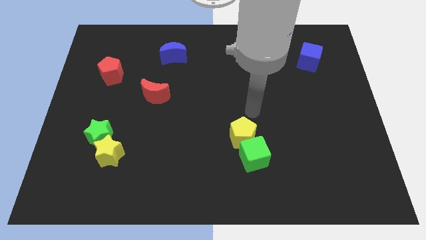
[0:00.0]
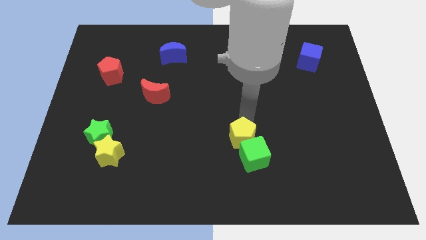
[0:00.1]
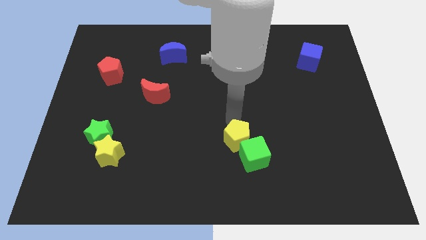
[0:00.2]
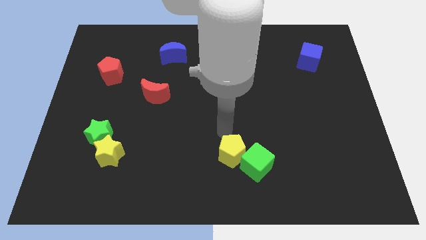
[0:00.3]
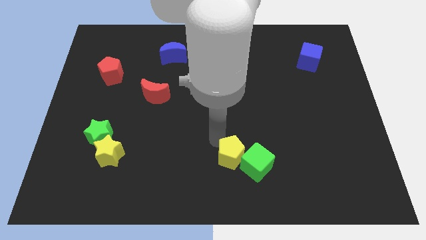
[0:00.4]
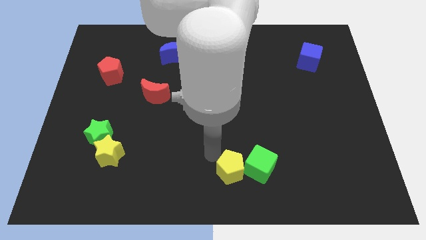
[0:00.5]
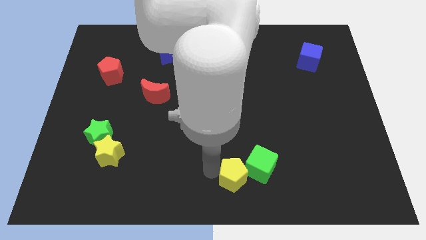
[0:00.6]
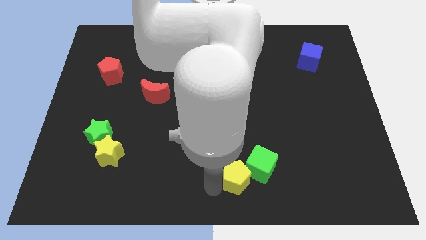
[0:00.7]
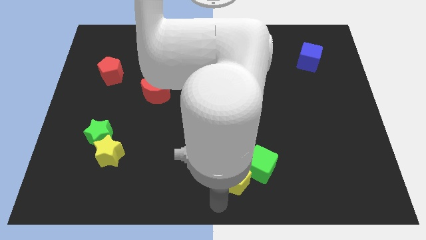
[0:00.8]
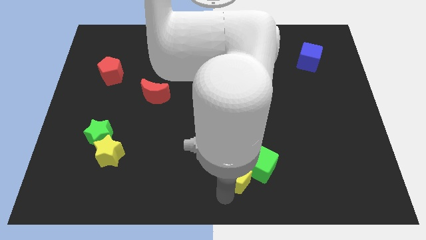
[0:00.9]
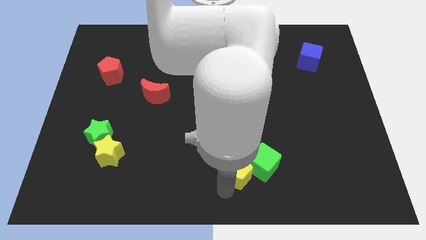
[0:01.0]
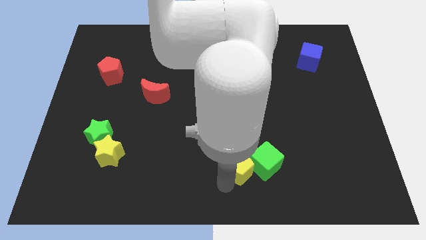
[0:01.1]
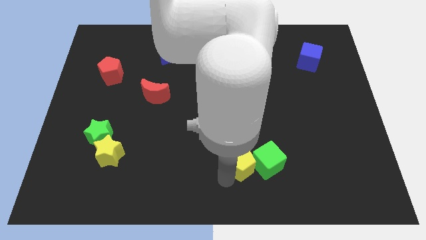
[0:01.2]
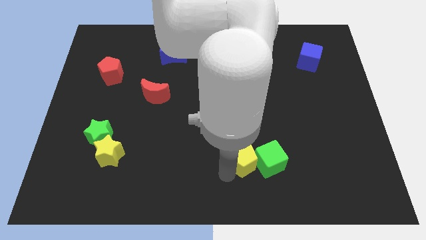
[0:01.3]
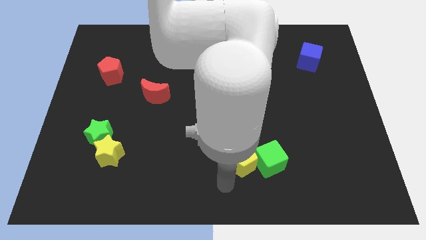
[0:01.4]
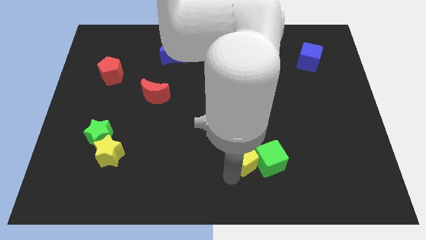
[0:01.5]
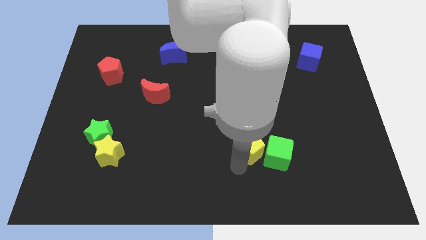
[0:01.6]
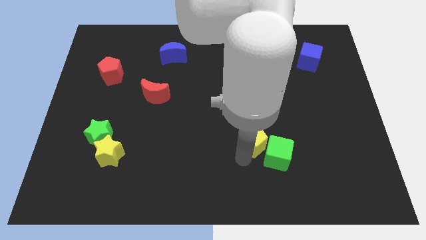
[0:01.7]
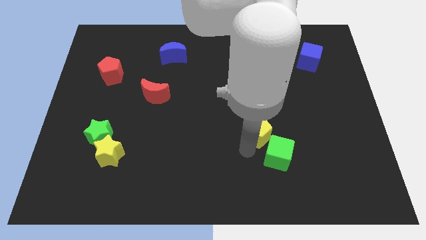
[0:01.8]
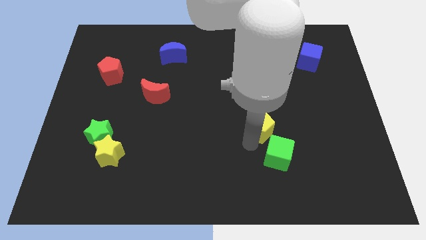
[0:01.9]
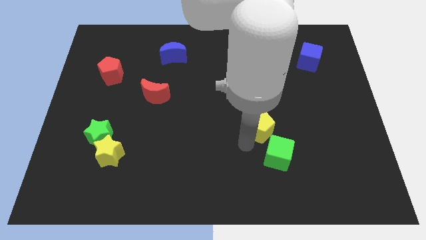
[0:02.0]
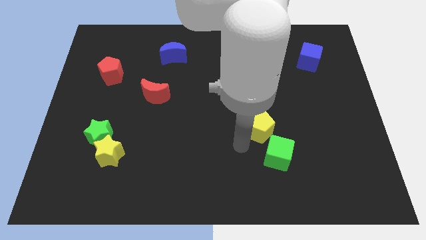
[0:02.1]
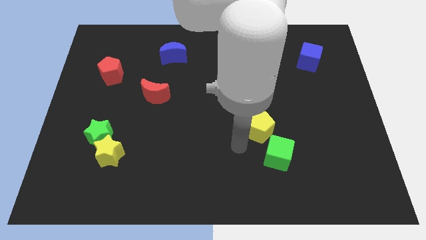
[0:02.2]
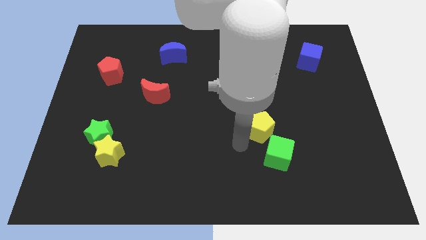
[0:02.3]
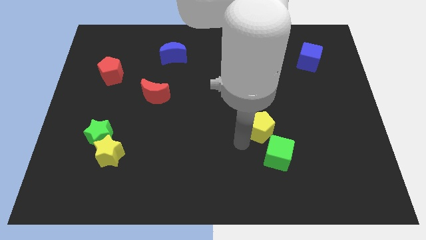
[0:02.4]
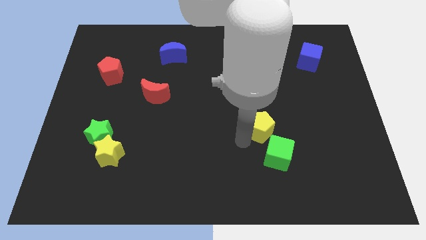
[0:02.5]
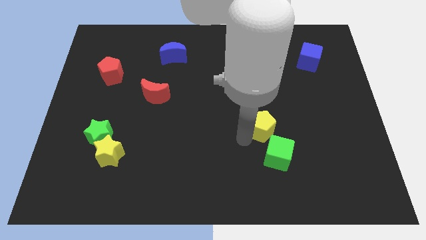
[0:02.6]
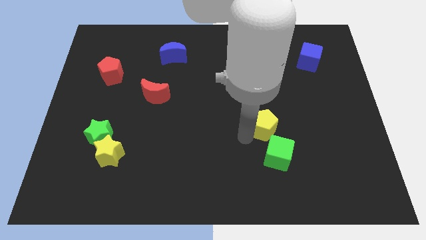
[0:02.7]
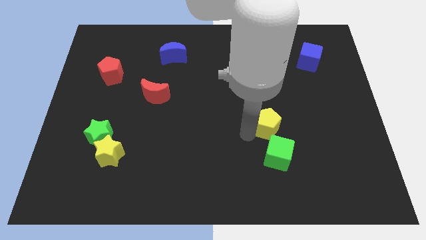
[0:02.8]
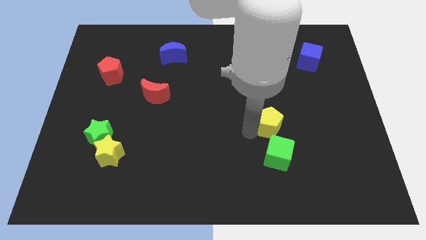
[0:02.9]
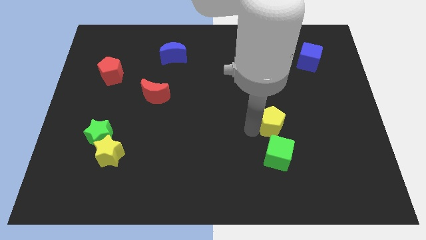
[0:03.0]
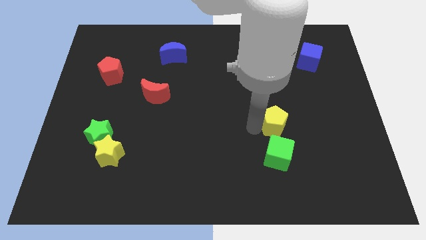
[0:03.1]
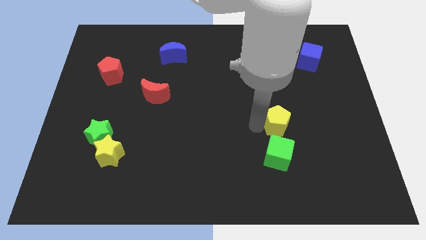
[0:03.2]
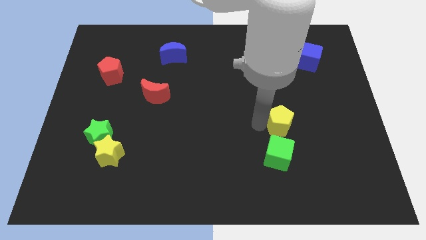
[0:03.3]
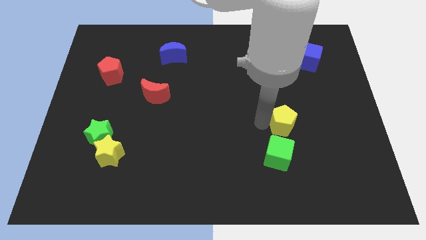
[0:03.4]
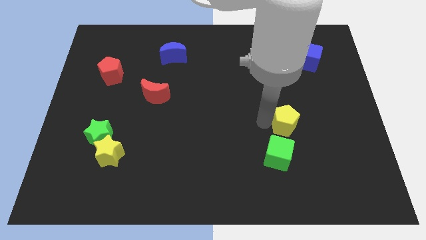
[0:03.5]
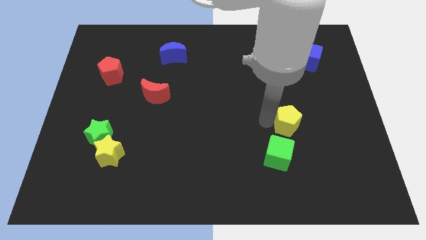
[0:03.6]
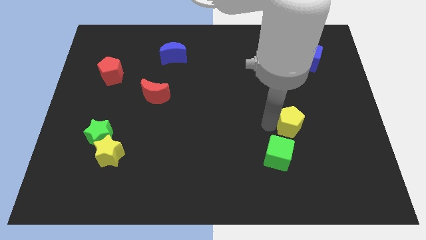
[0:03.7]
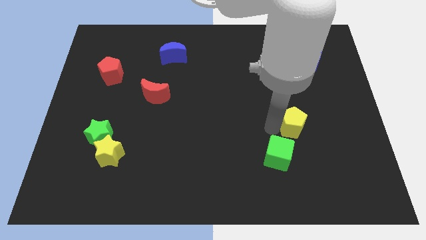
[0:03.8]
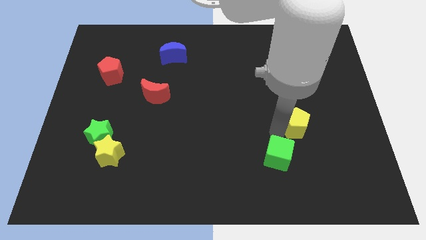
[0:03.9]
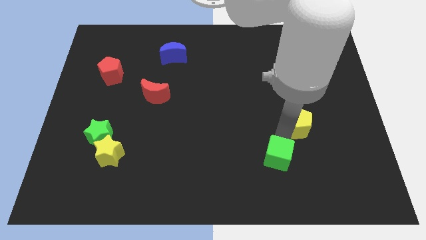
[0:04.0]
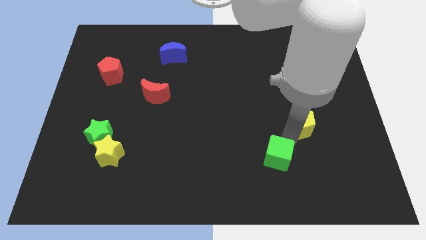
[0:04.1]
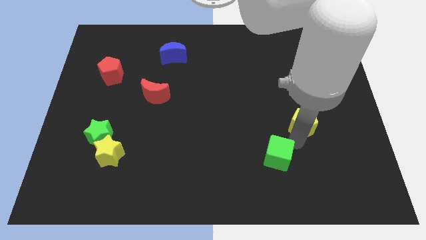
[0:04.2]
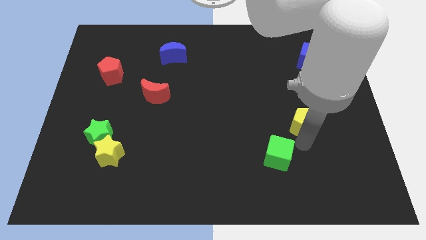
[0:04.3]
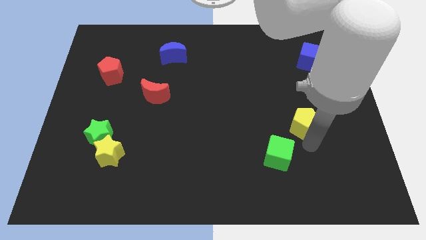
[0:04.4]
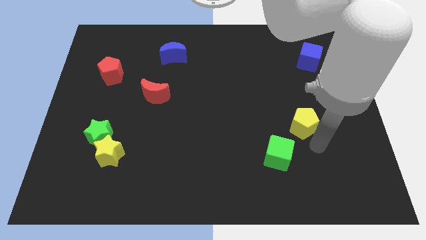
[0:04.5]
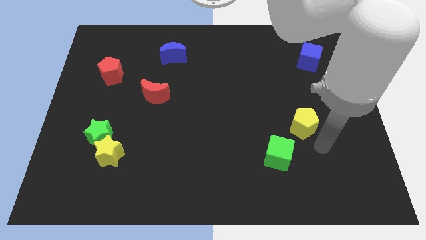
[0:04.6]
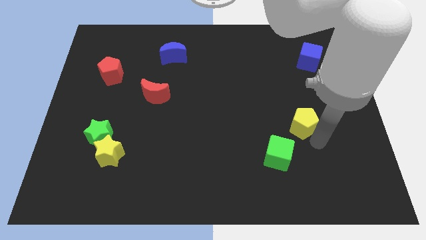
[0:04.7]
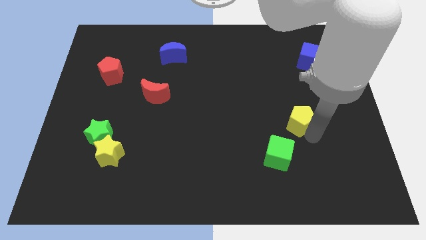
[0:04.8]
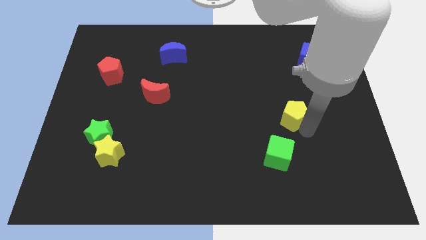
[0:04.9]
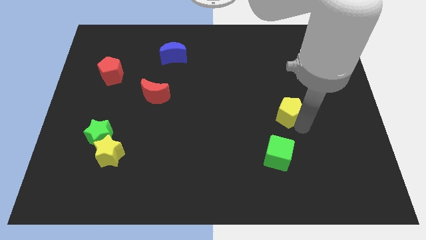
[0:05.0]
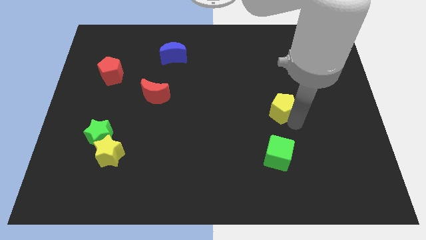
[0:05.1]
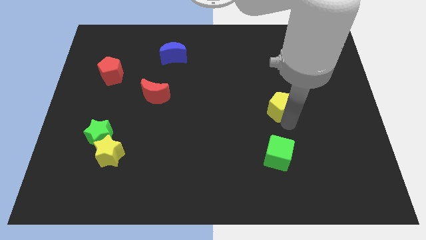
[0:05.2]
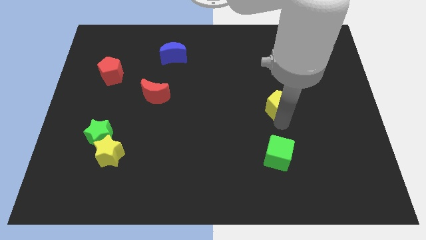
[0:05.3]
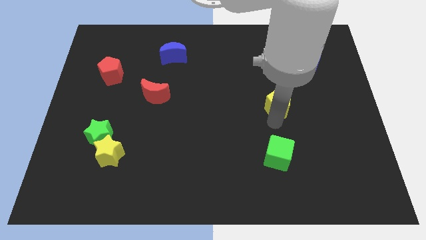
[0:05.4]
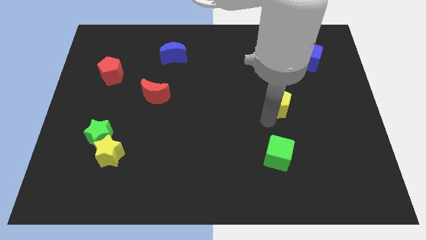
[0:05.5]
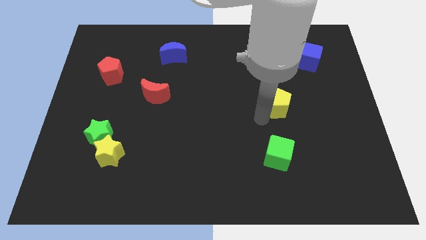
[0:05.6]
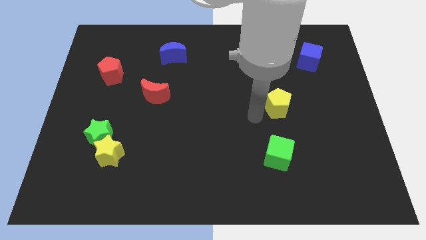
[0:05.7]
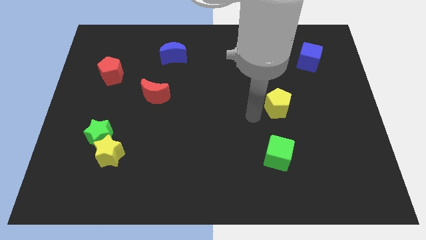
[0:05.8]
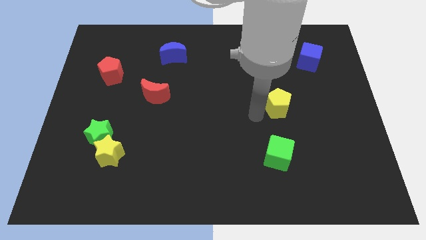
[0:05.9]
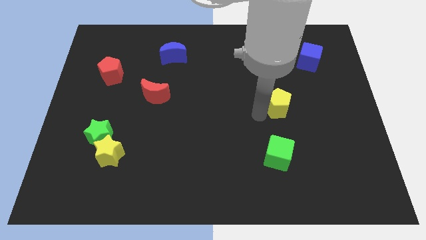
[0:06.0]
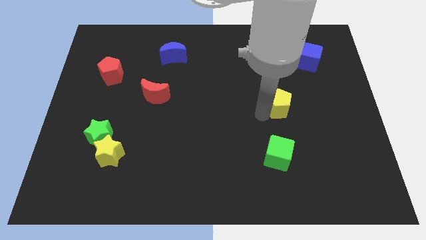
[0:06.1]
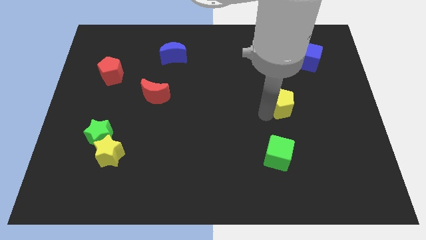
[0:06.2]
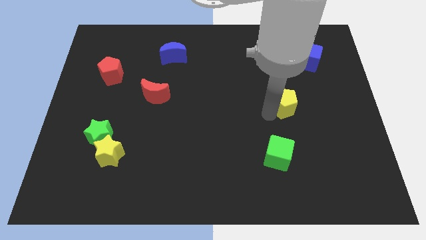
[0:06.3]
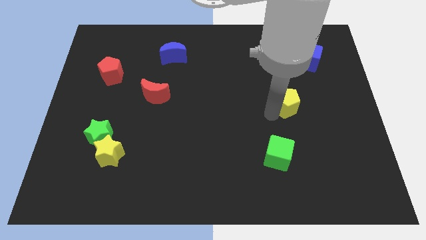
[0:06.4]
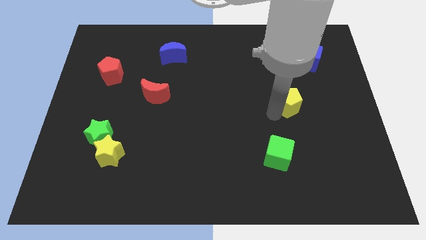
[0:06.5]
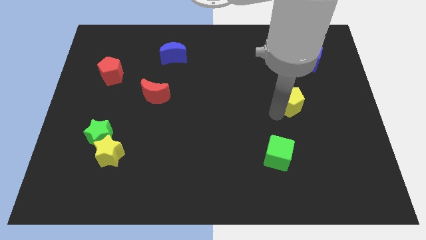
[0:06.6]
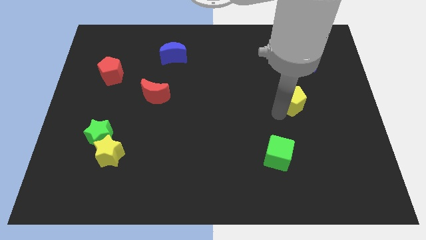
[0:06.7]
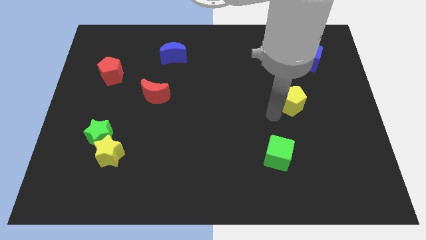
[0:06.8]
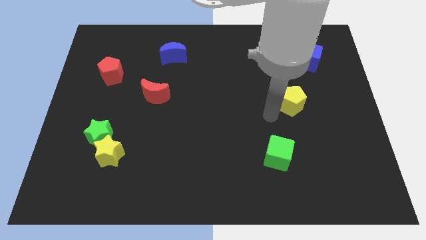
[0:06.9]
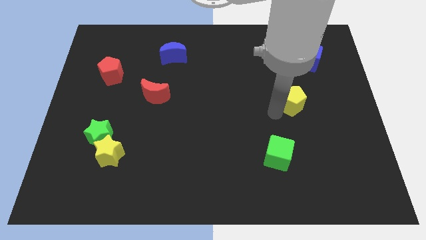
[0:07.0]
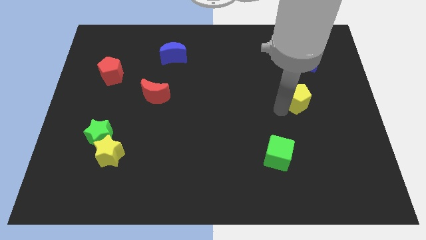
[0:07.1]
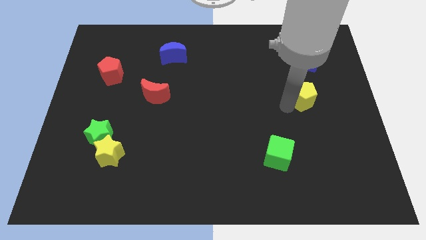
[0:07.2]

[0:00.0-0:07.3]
move the yellow pentagon below the blue cube

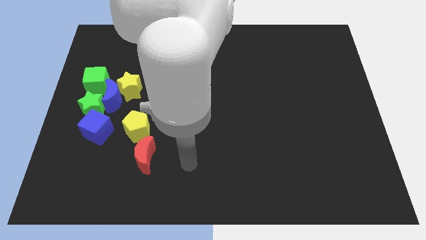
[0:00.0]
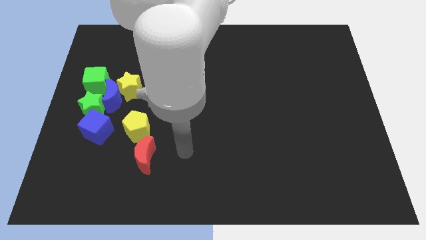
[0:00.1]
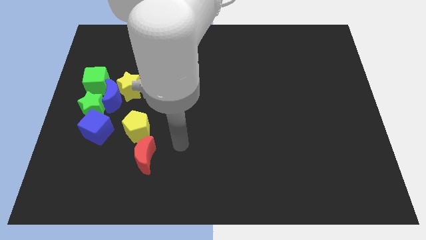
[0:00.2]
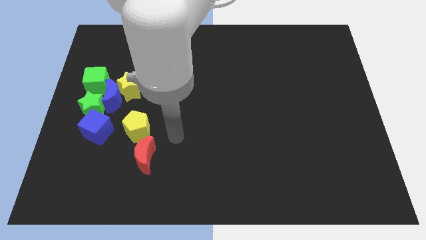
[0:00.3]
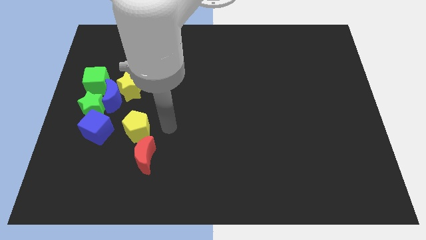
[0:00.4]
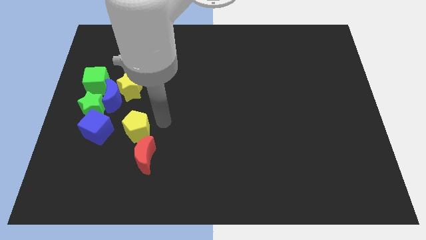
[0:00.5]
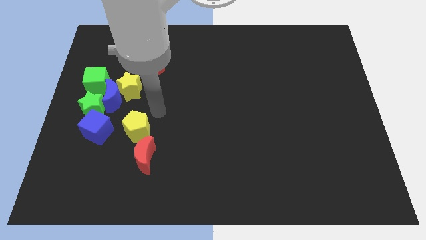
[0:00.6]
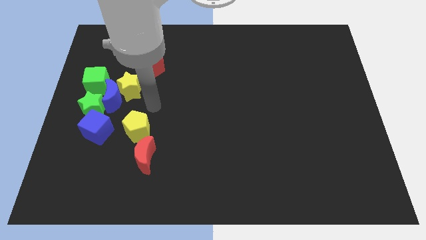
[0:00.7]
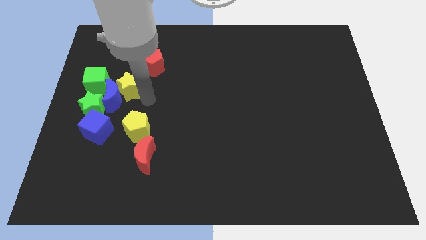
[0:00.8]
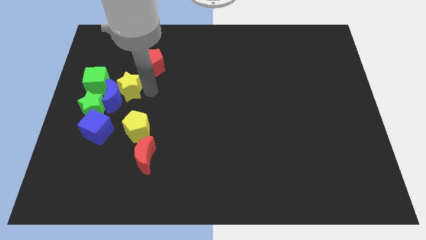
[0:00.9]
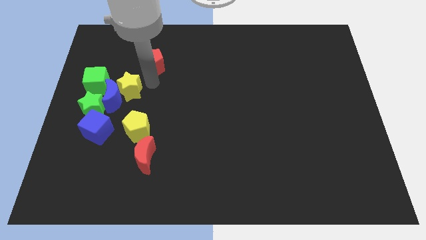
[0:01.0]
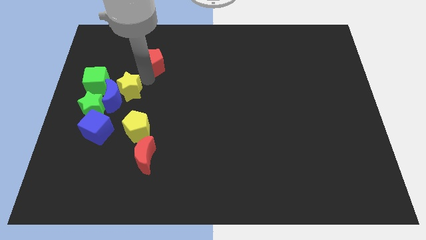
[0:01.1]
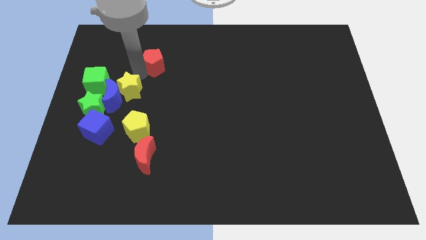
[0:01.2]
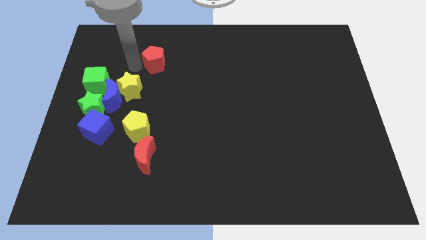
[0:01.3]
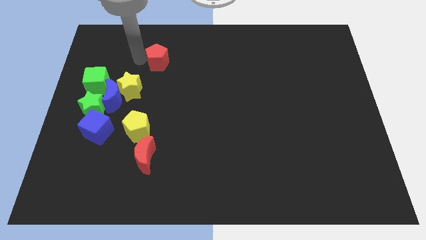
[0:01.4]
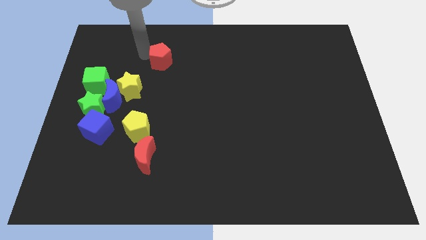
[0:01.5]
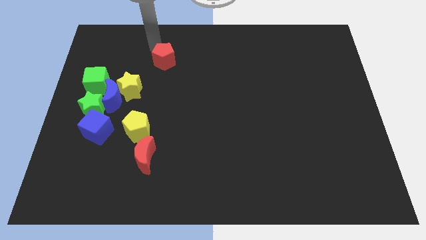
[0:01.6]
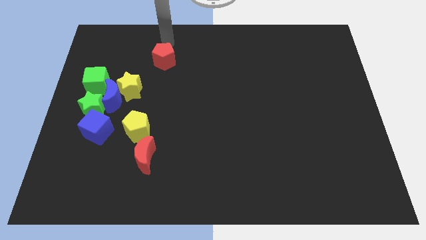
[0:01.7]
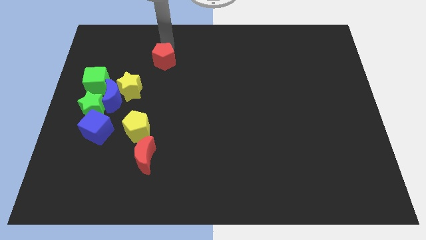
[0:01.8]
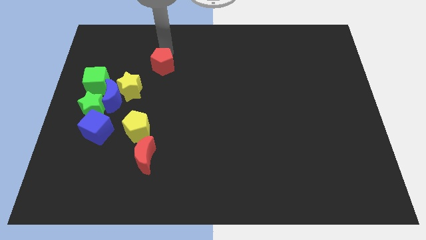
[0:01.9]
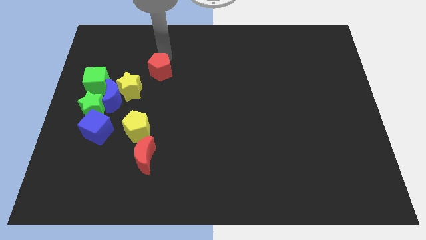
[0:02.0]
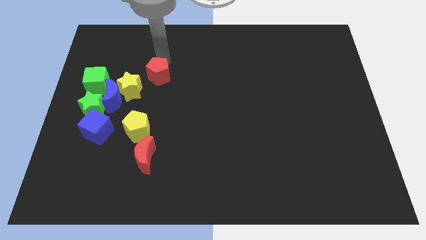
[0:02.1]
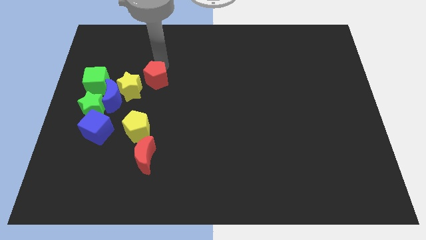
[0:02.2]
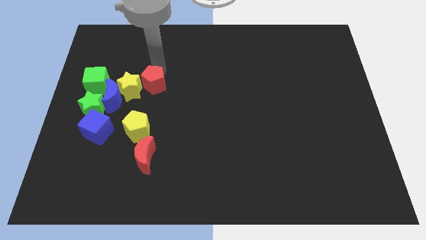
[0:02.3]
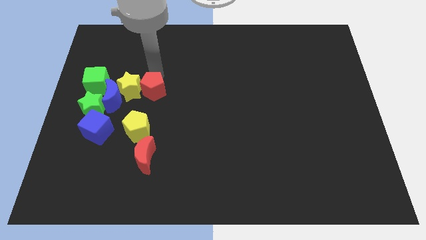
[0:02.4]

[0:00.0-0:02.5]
move the red pentagon right of the blue moon
